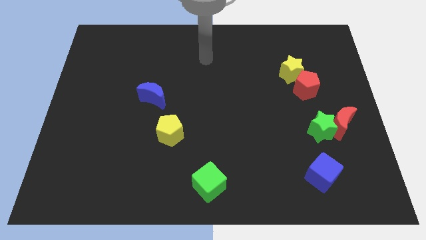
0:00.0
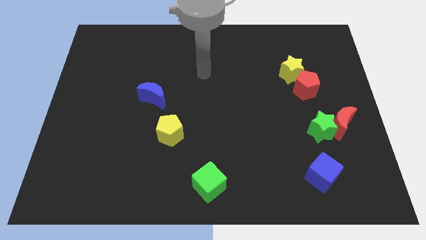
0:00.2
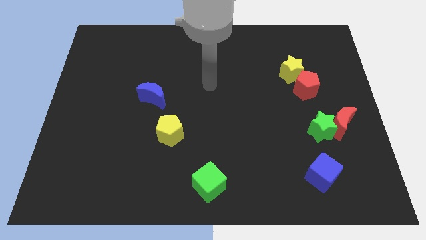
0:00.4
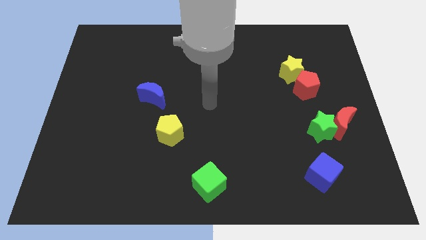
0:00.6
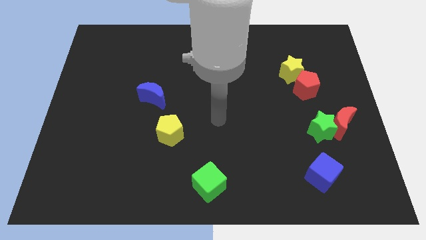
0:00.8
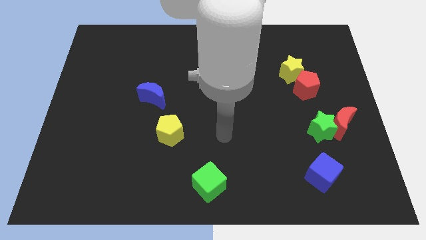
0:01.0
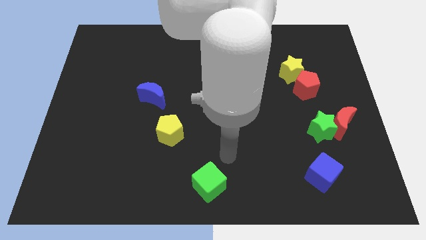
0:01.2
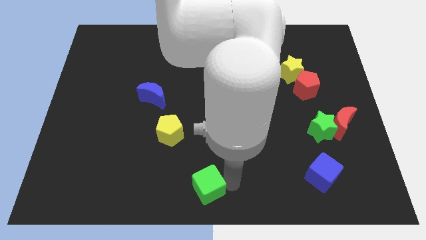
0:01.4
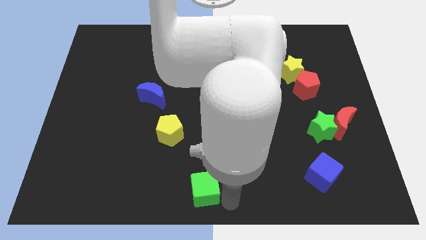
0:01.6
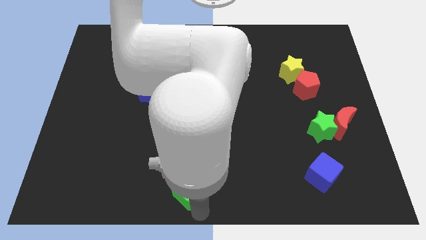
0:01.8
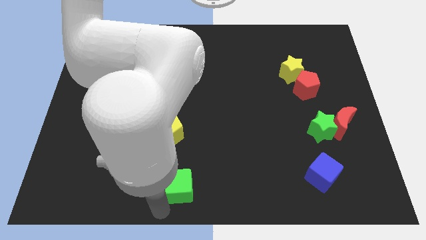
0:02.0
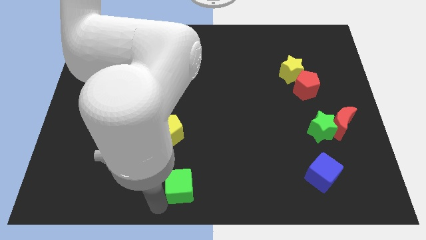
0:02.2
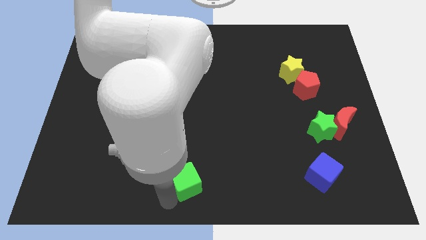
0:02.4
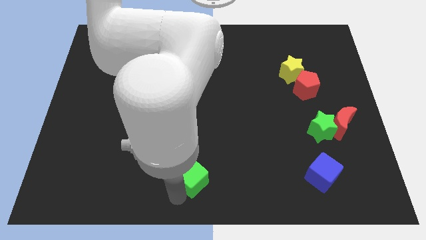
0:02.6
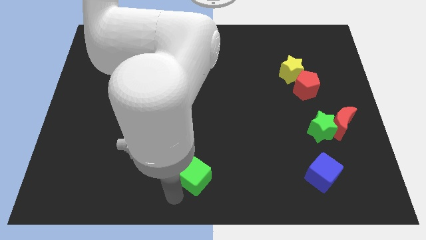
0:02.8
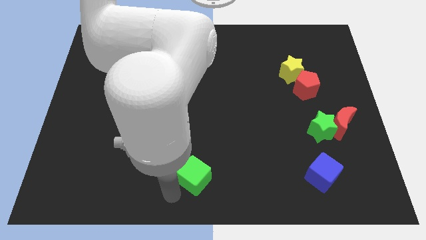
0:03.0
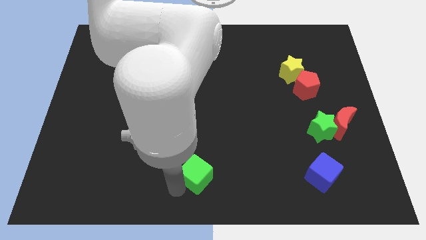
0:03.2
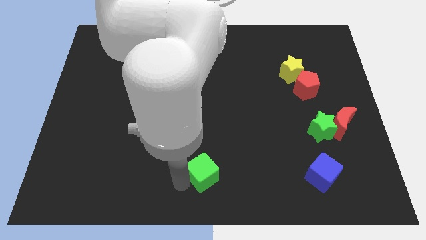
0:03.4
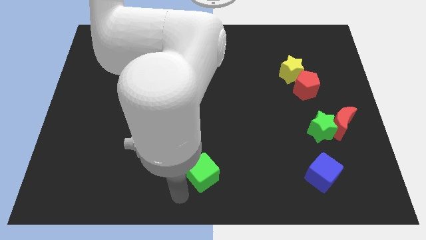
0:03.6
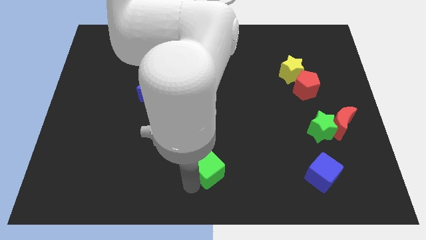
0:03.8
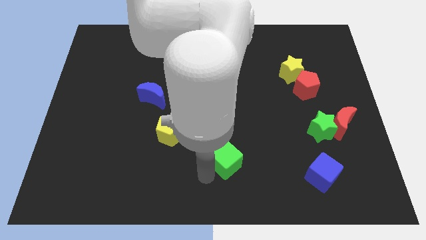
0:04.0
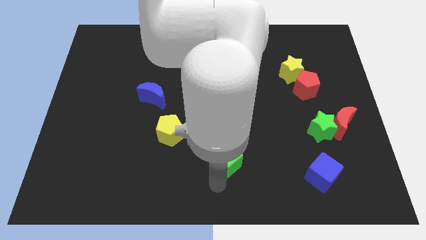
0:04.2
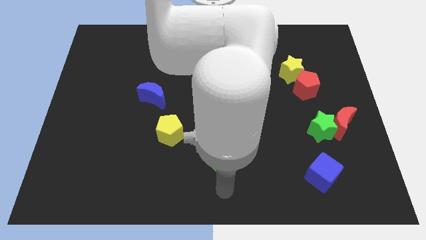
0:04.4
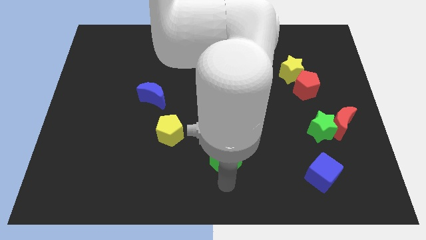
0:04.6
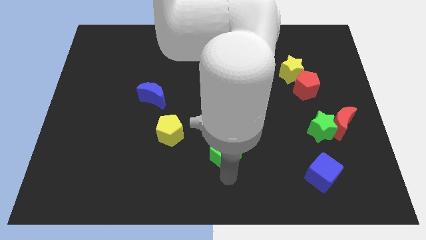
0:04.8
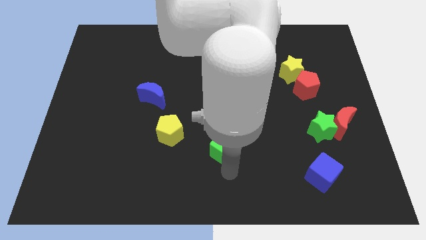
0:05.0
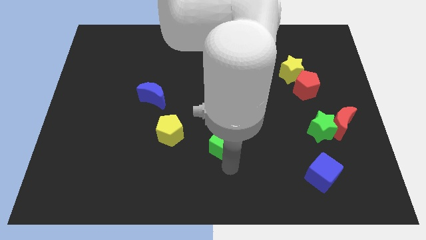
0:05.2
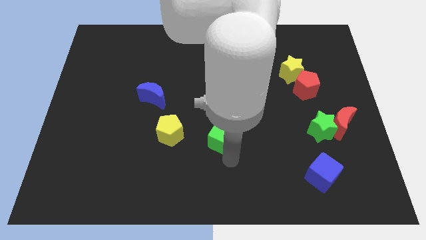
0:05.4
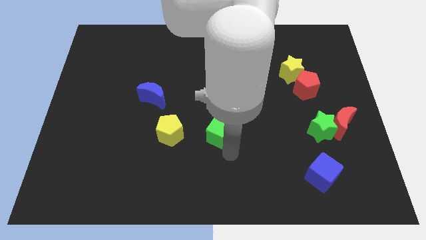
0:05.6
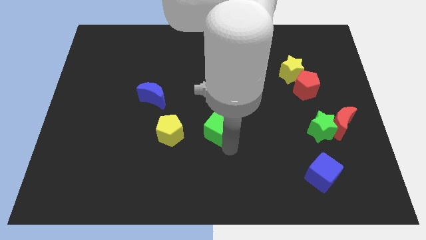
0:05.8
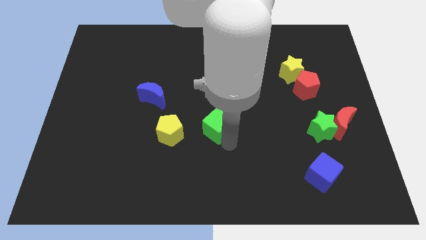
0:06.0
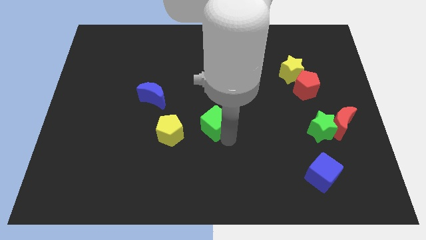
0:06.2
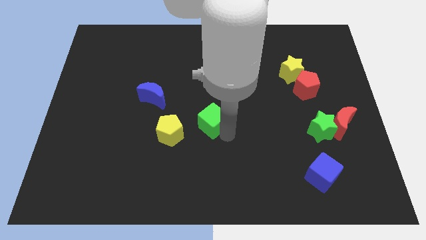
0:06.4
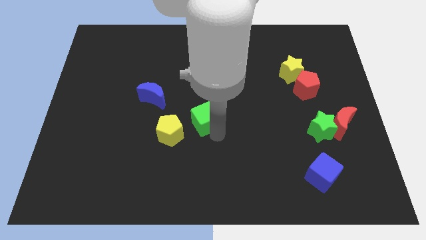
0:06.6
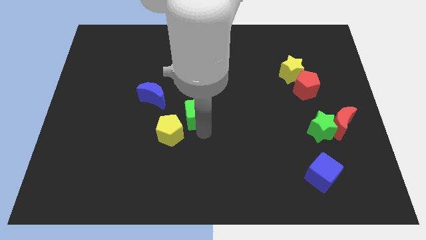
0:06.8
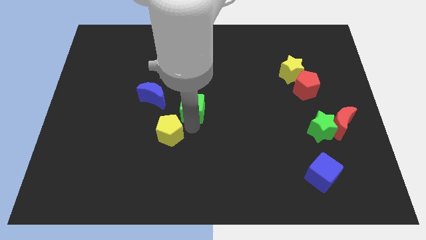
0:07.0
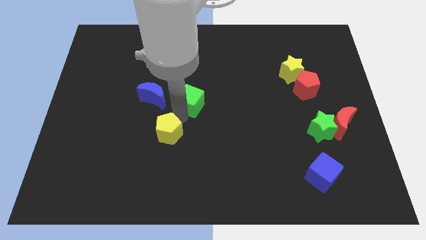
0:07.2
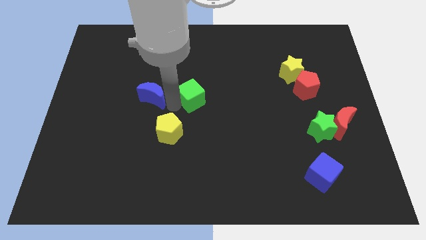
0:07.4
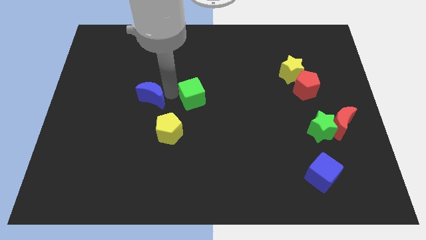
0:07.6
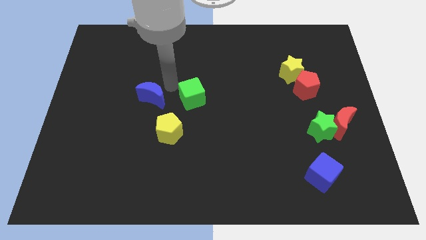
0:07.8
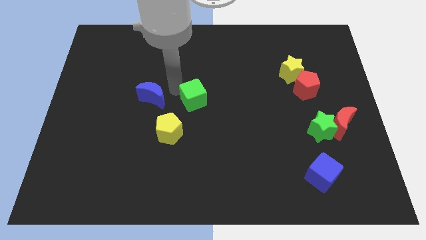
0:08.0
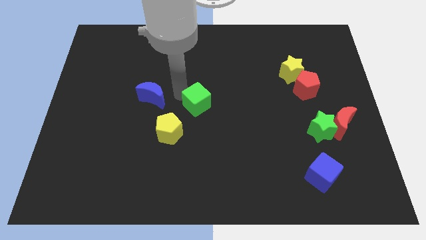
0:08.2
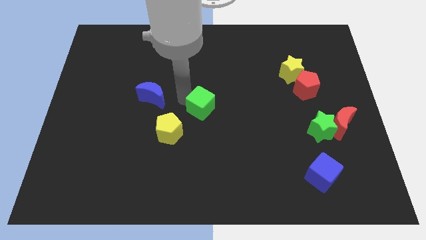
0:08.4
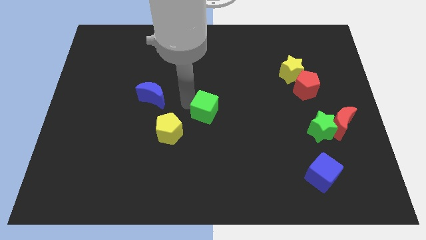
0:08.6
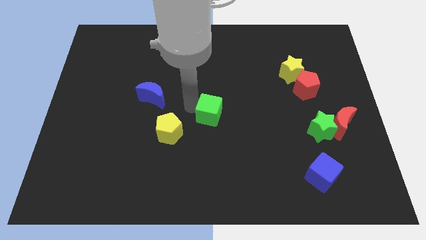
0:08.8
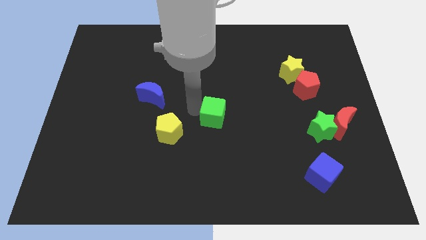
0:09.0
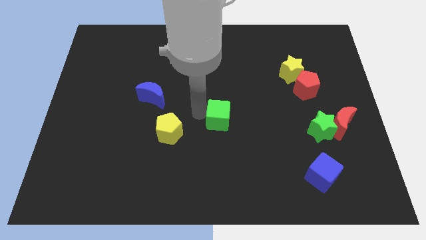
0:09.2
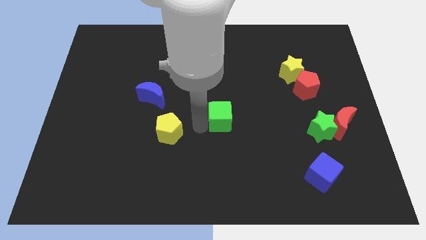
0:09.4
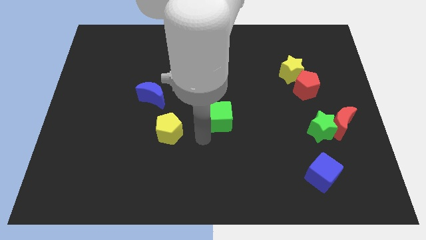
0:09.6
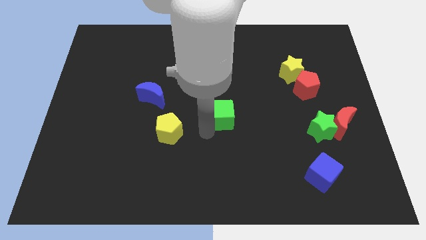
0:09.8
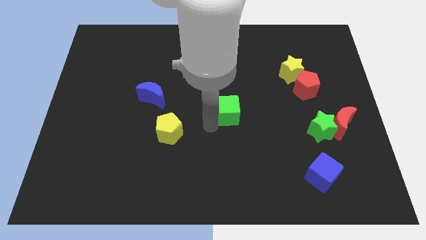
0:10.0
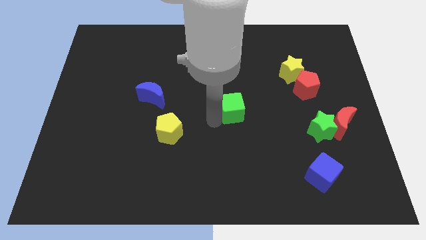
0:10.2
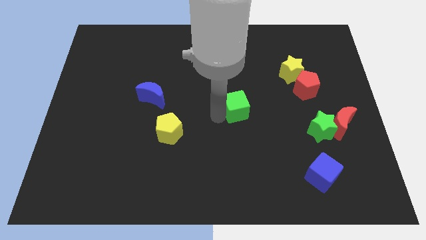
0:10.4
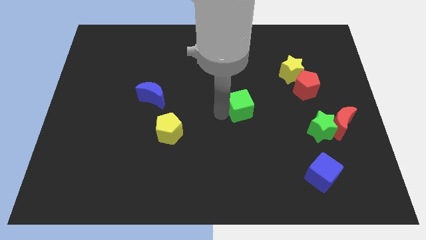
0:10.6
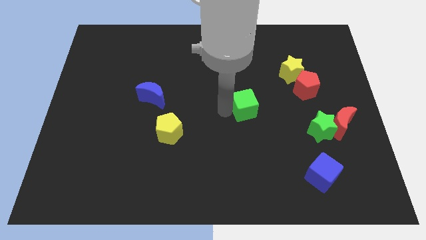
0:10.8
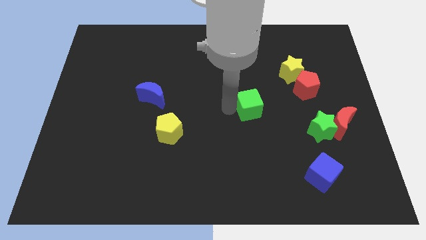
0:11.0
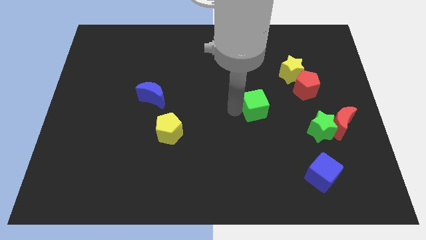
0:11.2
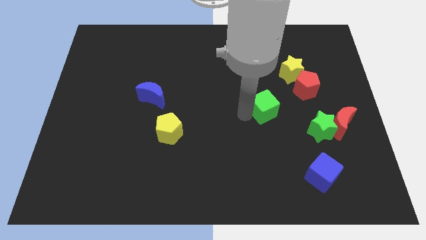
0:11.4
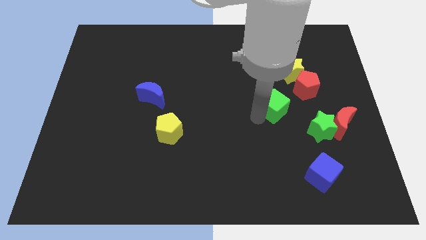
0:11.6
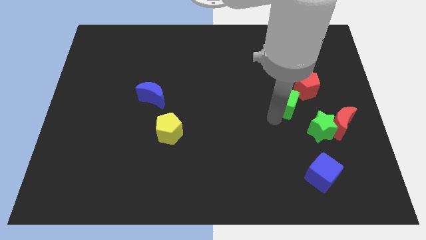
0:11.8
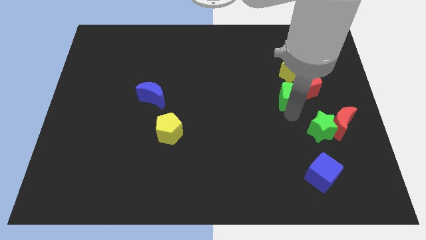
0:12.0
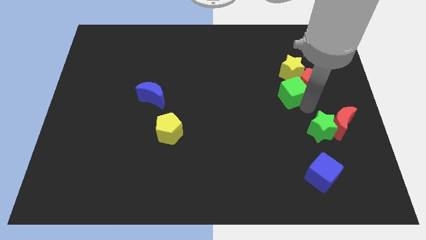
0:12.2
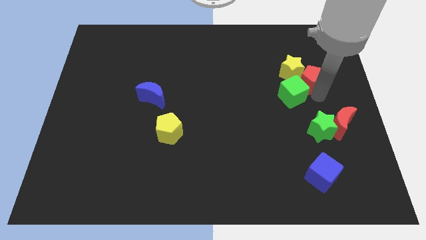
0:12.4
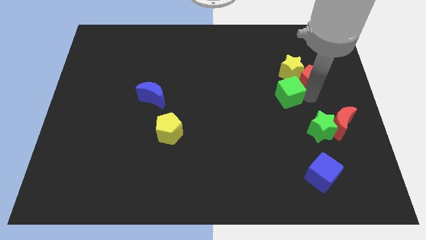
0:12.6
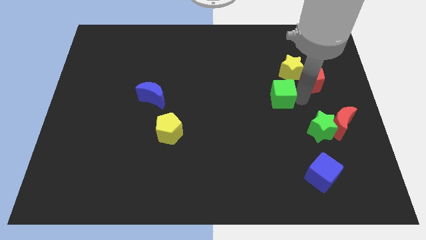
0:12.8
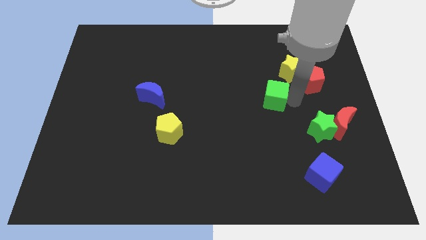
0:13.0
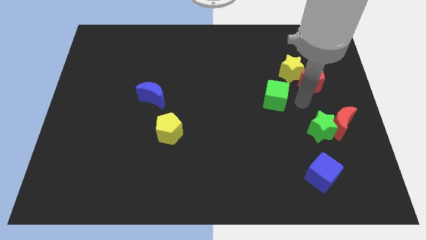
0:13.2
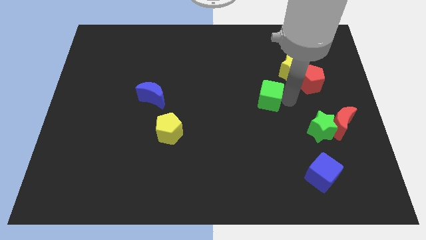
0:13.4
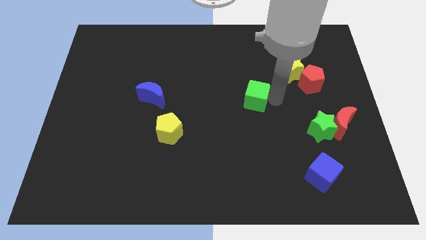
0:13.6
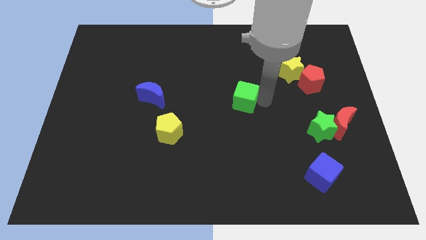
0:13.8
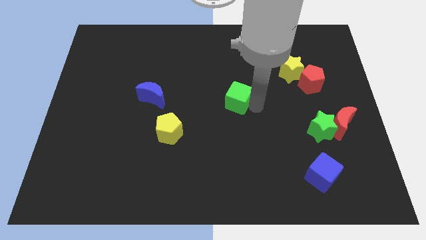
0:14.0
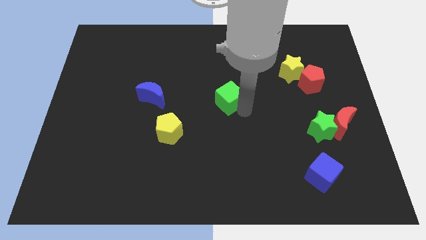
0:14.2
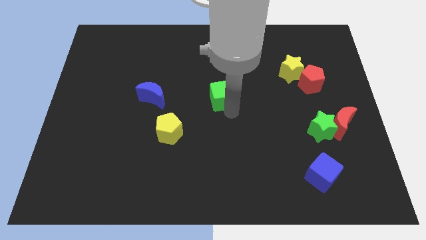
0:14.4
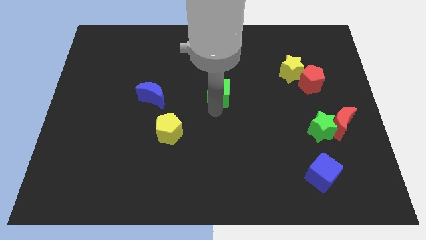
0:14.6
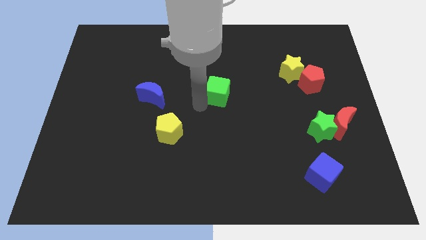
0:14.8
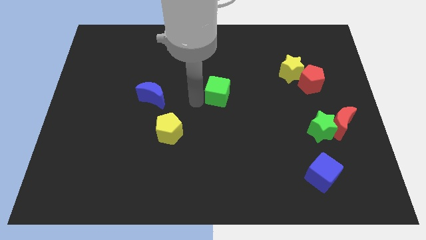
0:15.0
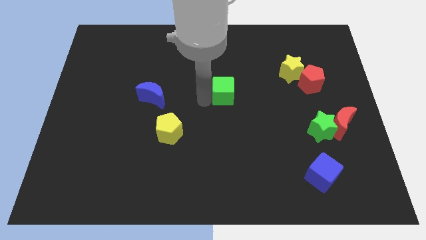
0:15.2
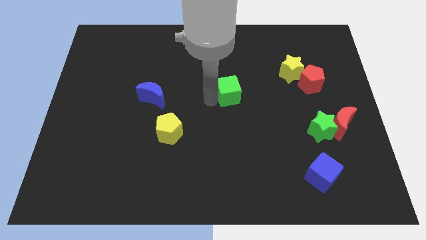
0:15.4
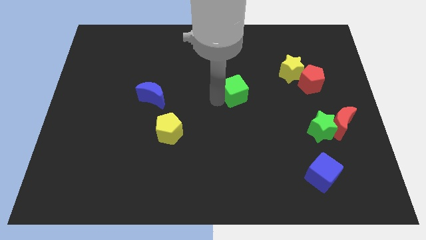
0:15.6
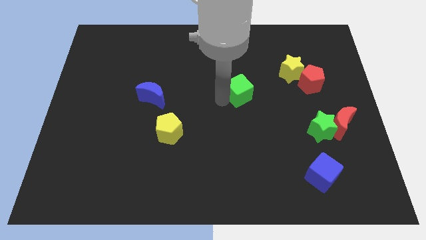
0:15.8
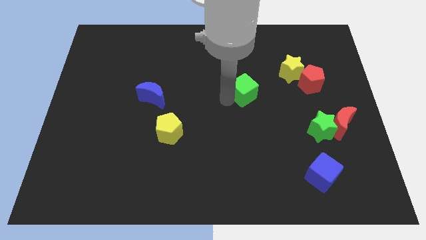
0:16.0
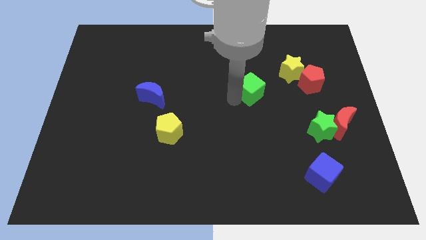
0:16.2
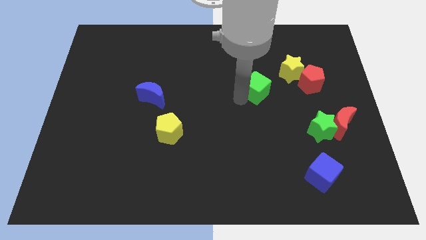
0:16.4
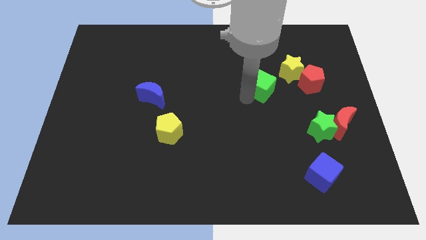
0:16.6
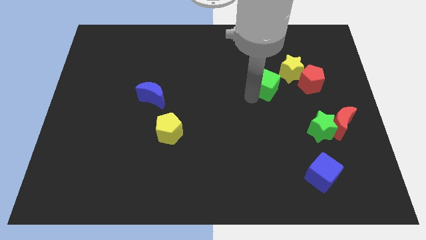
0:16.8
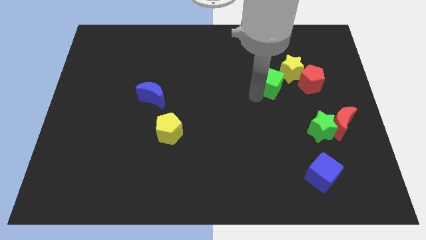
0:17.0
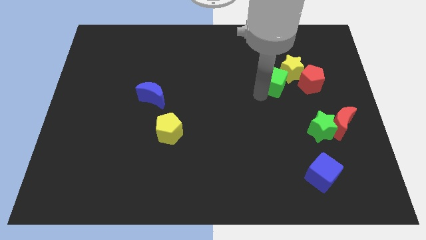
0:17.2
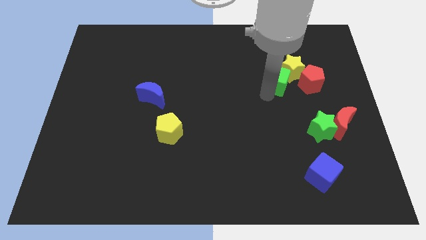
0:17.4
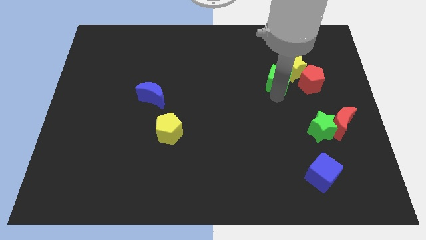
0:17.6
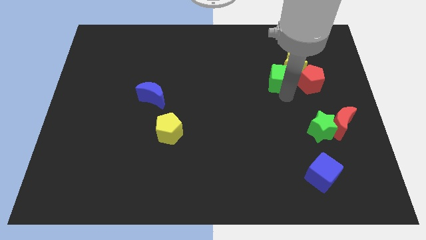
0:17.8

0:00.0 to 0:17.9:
slide the green cube to the top left side of the red pentagon
